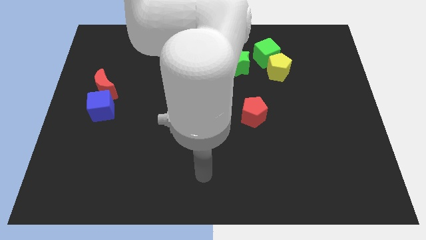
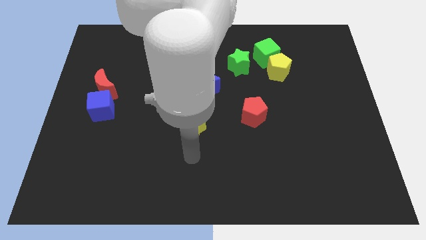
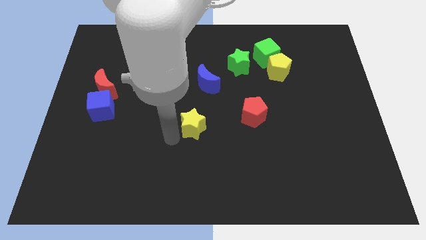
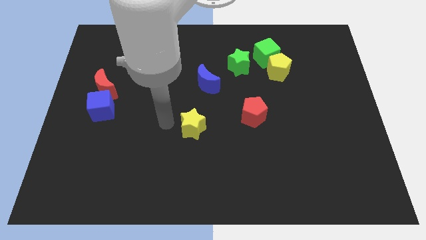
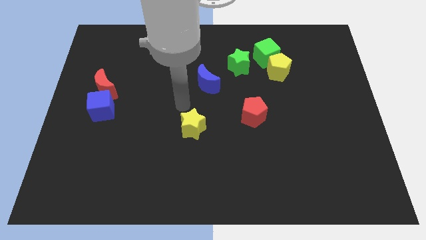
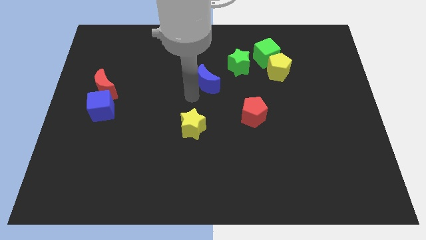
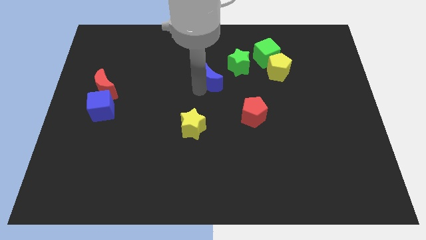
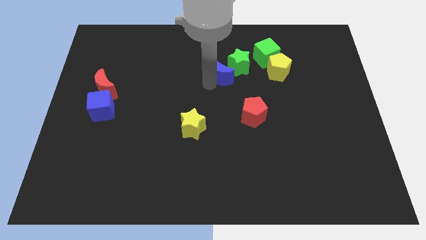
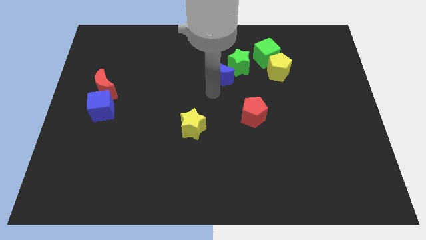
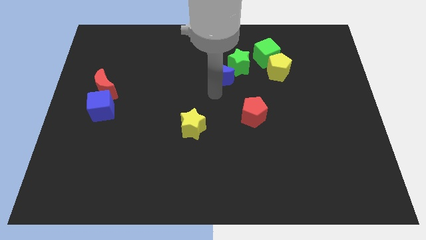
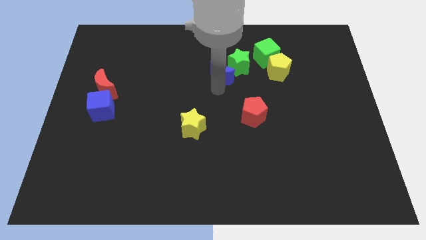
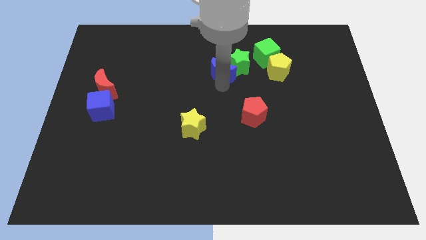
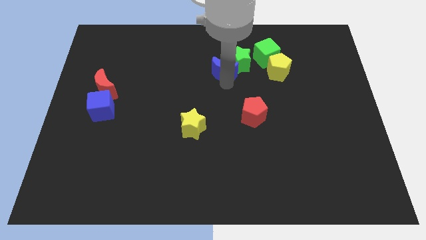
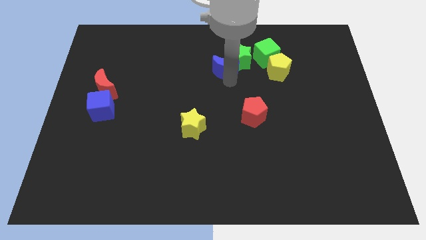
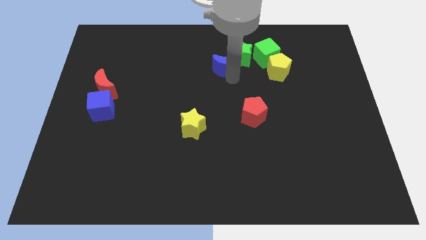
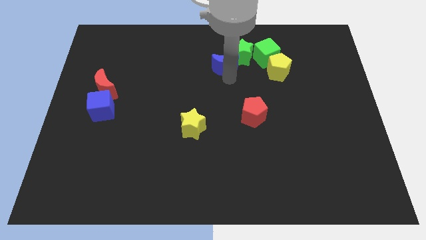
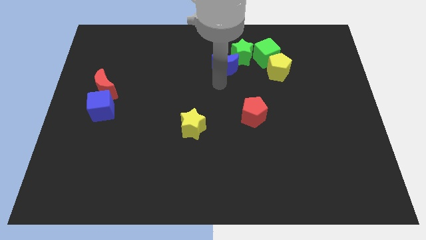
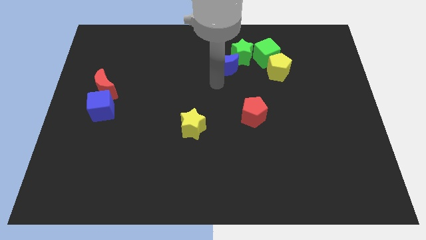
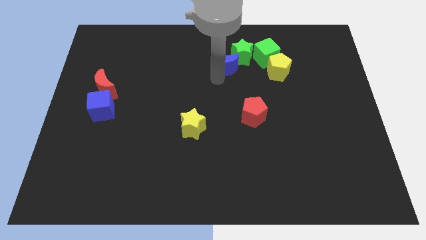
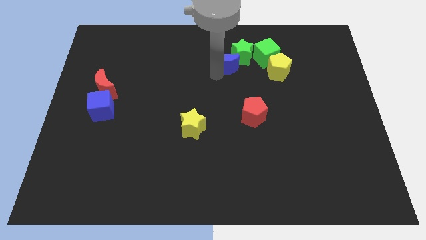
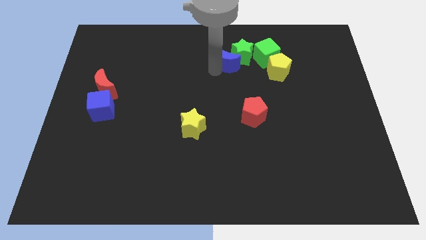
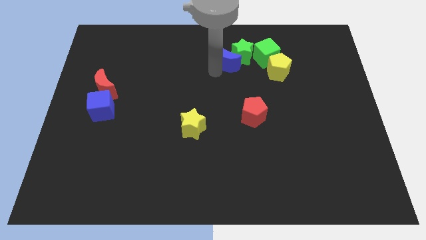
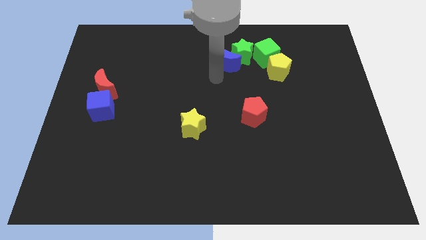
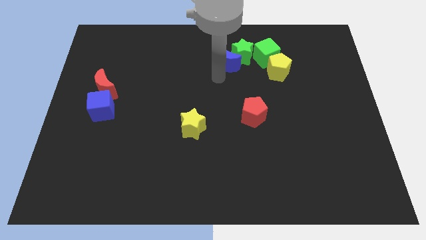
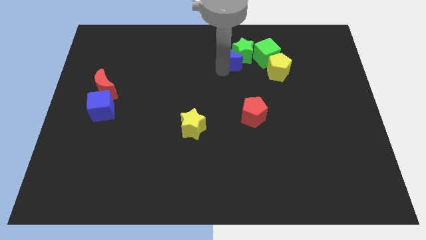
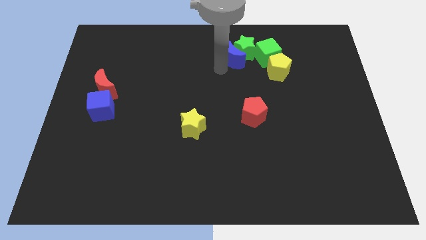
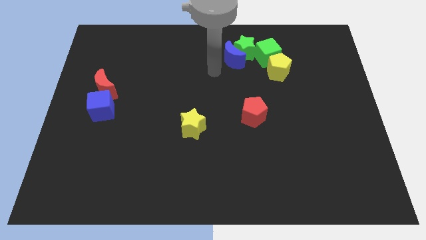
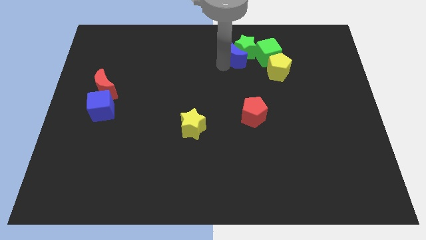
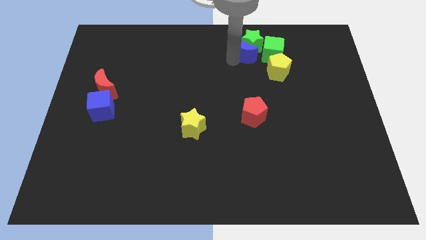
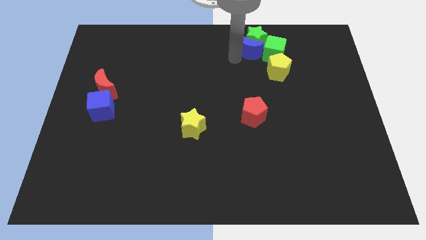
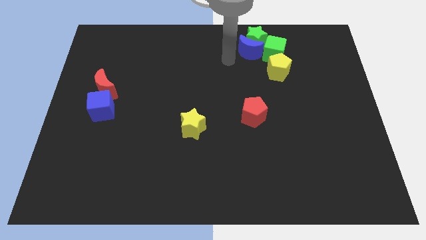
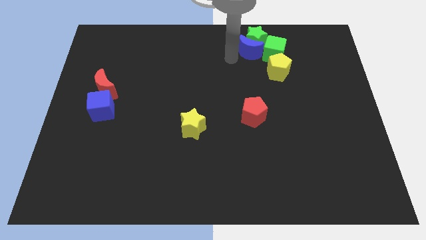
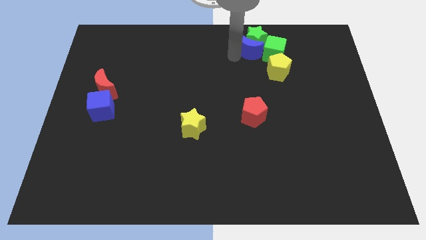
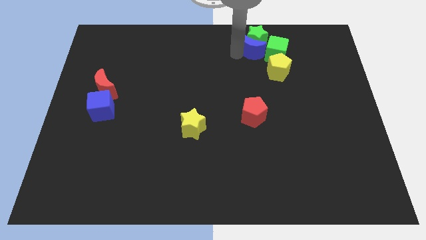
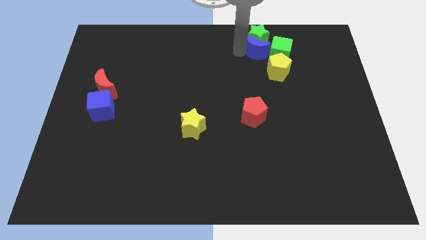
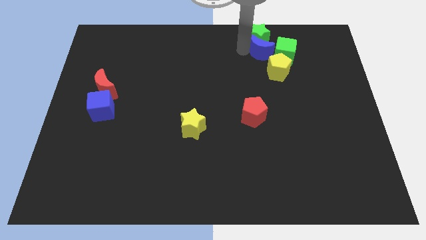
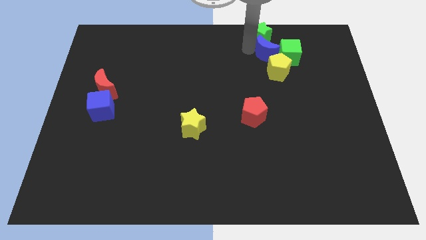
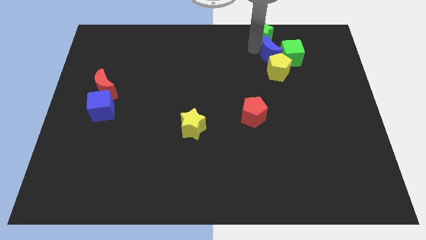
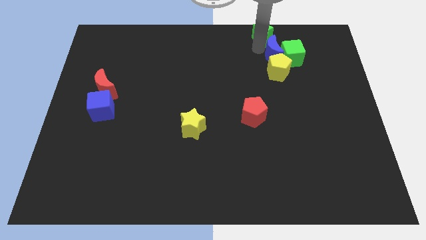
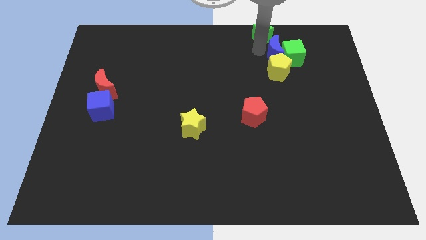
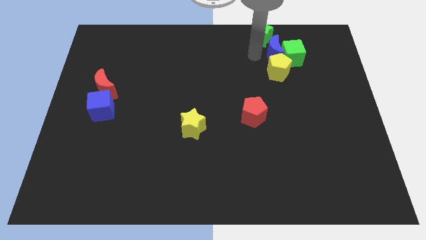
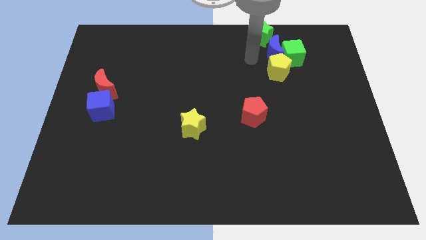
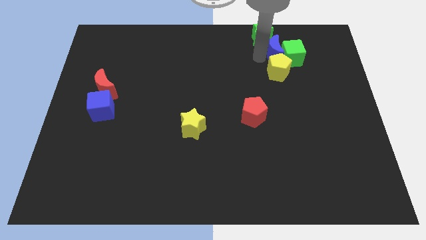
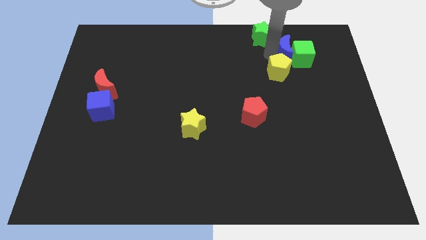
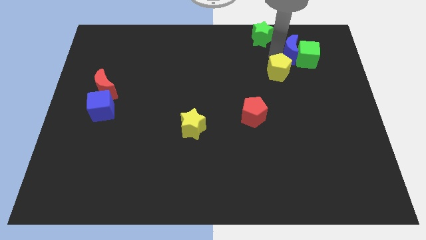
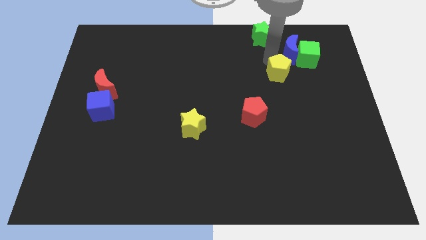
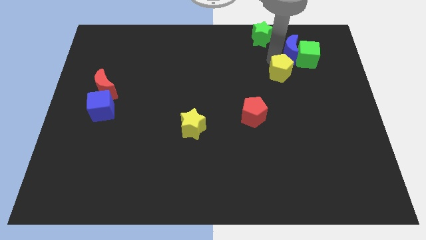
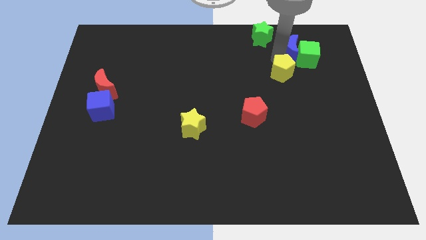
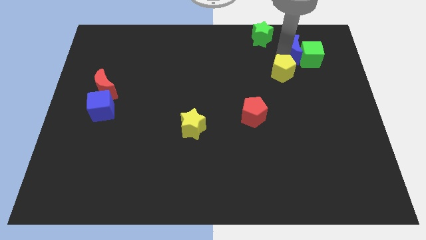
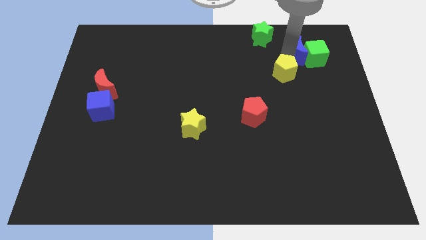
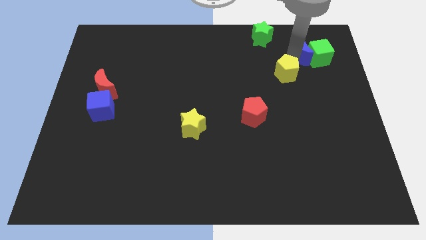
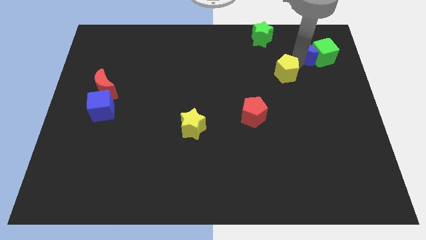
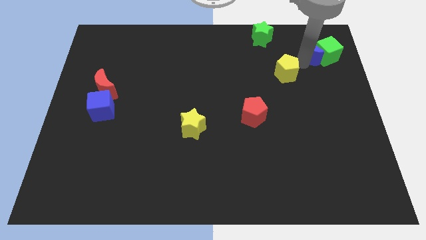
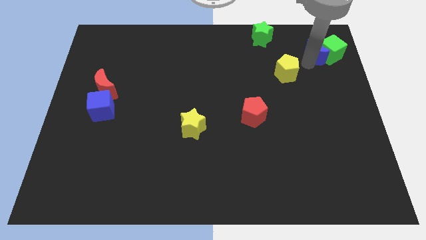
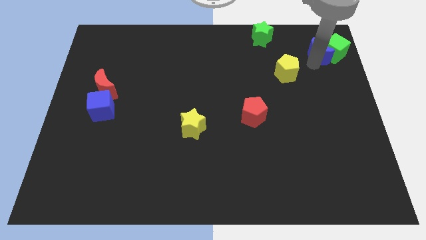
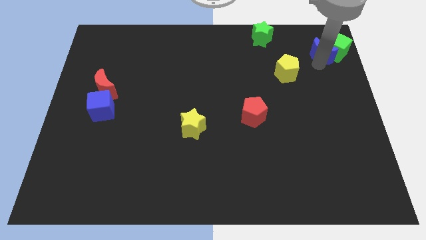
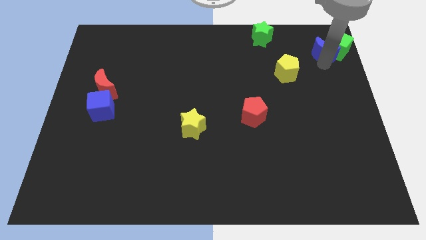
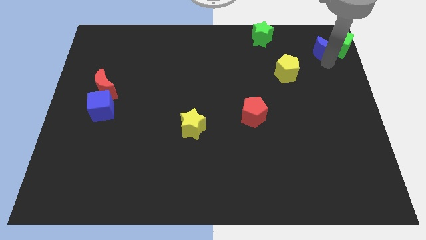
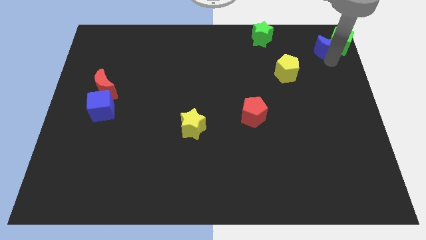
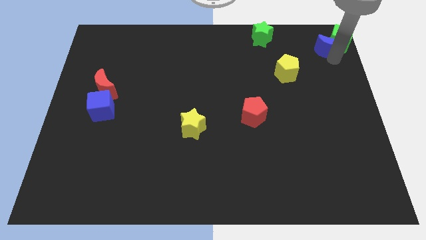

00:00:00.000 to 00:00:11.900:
put the blue moon to the upper right corner

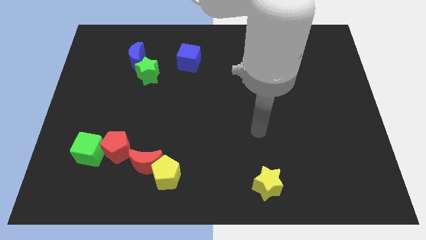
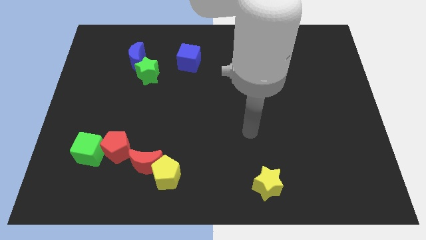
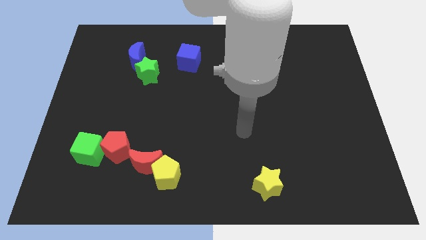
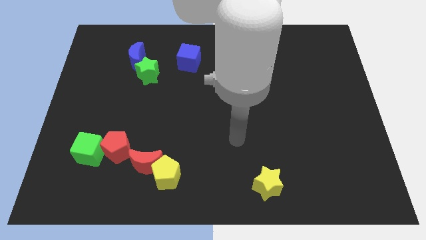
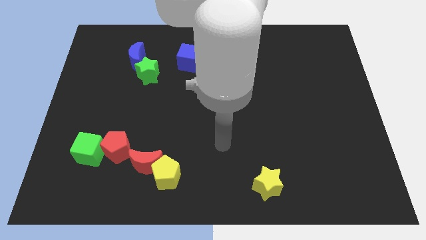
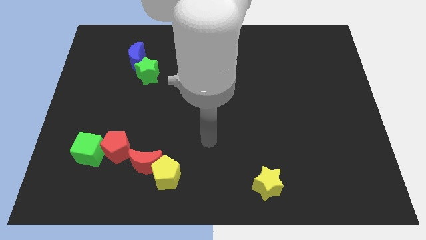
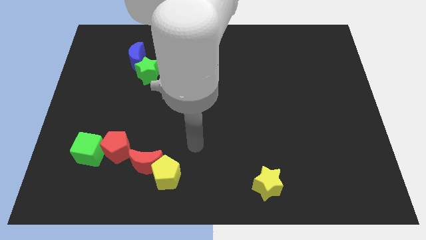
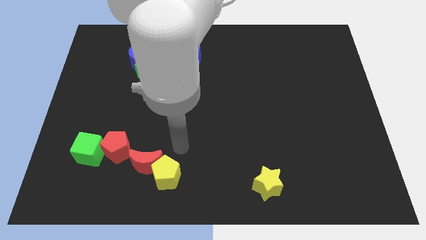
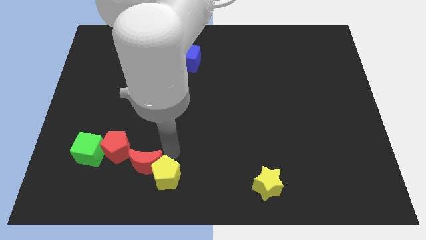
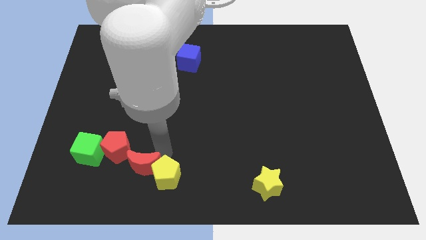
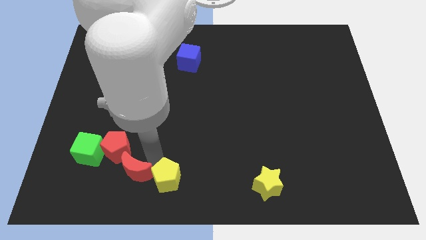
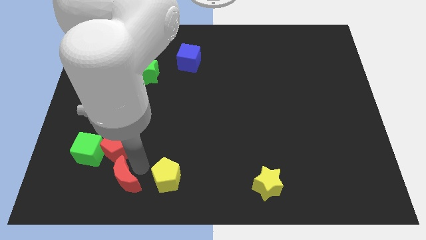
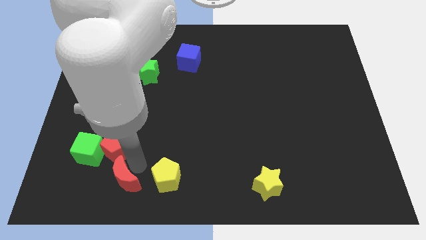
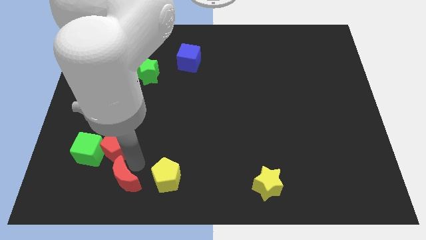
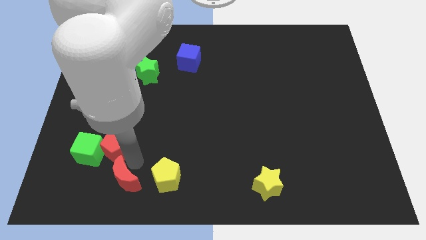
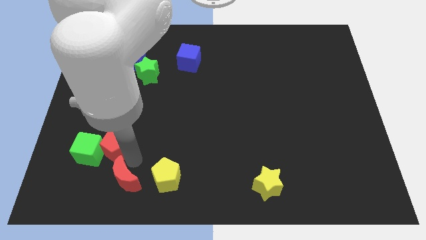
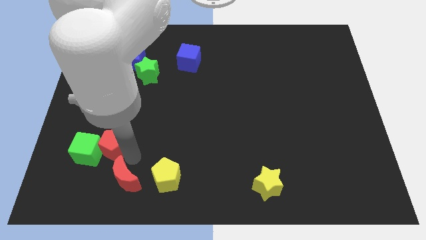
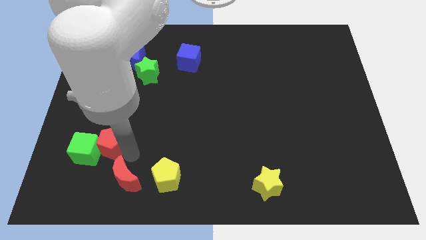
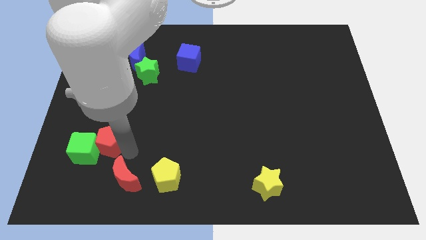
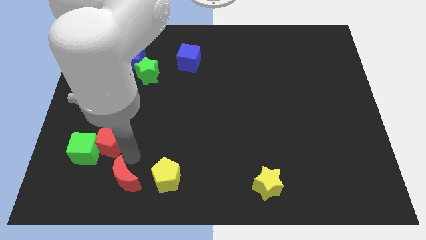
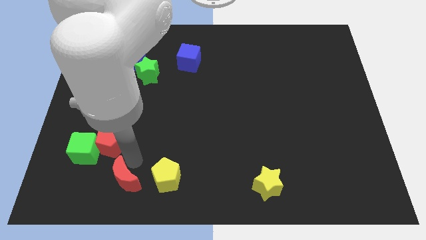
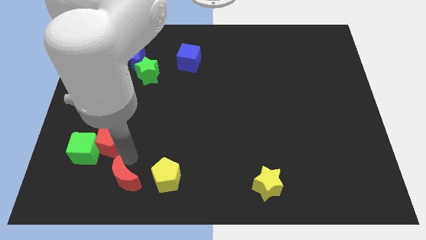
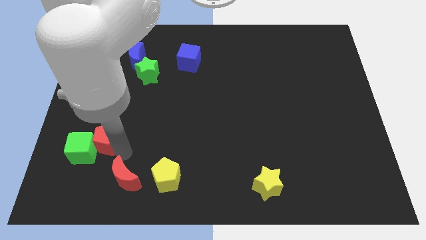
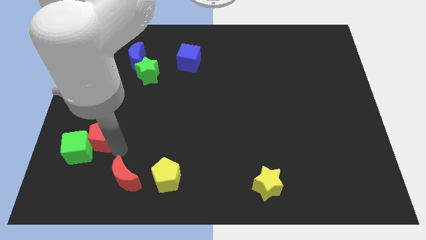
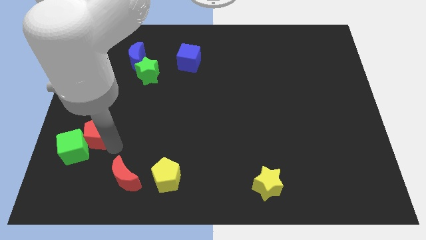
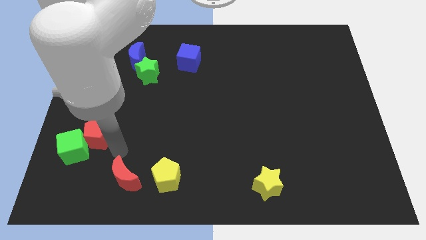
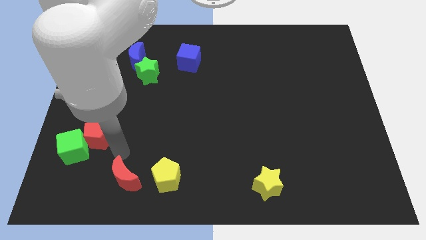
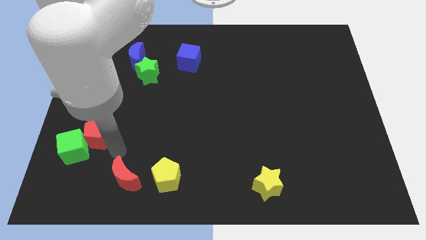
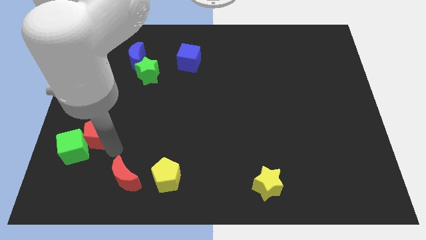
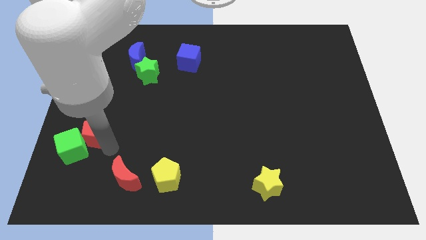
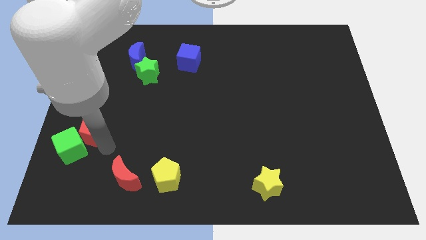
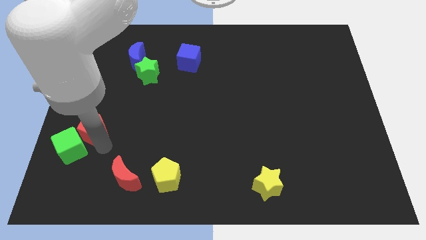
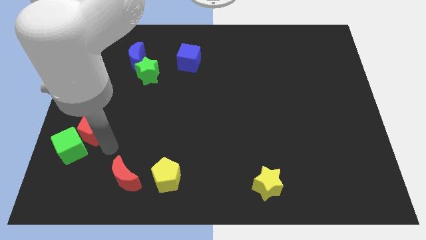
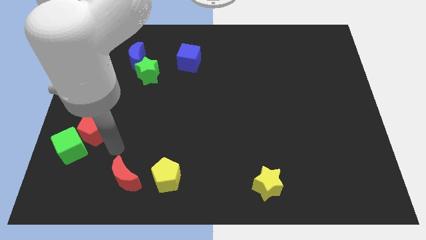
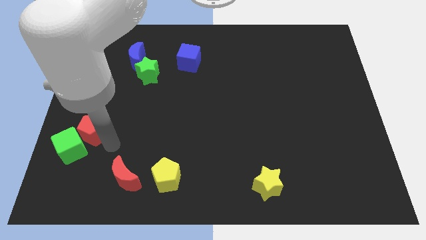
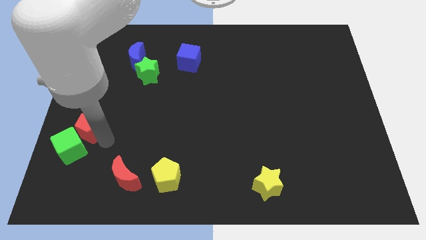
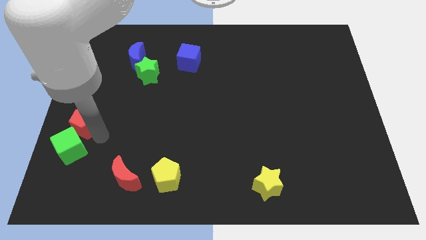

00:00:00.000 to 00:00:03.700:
push the red pentagon to the left side
